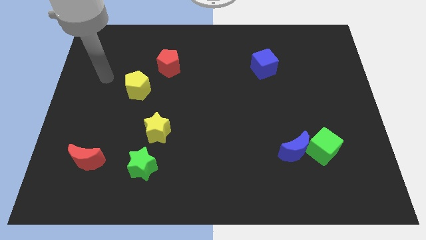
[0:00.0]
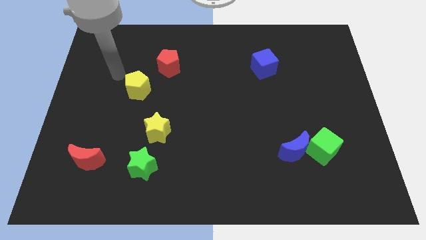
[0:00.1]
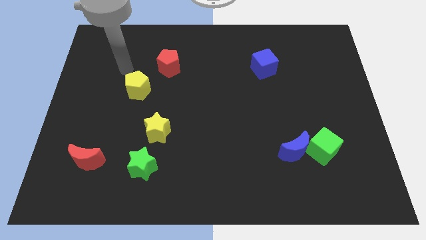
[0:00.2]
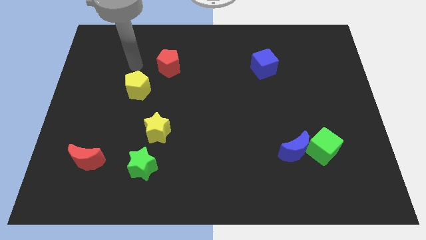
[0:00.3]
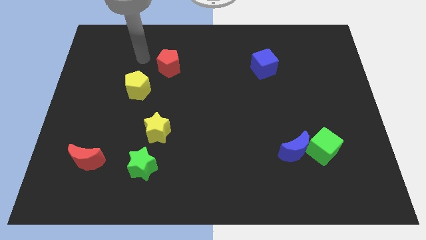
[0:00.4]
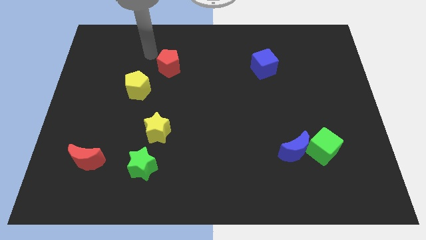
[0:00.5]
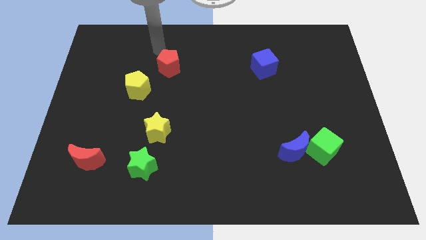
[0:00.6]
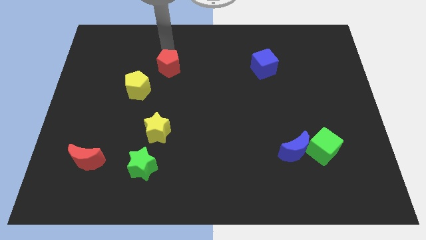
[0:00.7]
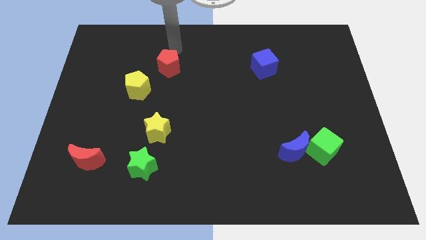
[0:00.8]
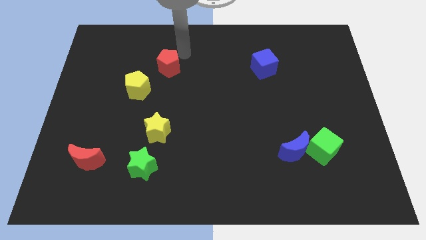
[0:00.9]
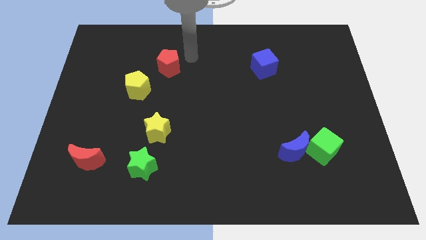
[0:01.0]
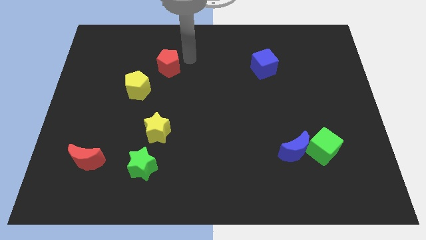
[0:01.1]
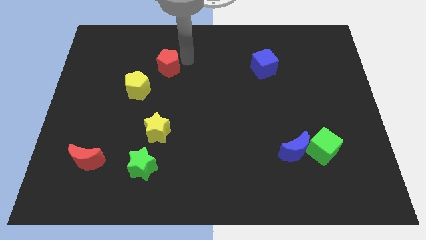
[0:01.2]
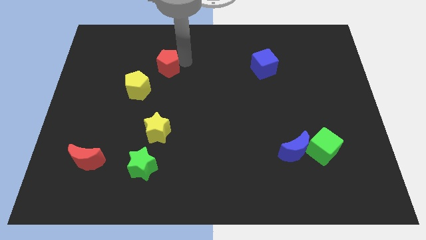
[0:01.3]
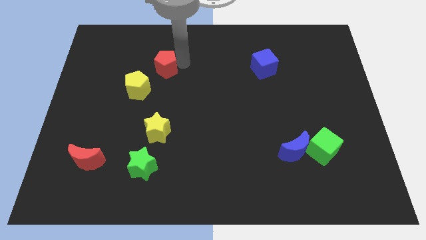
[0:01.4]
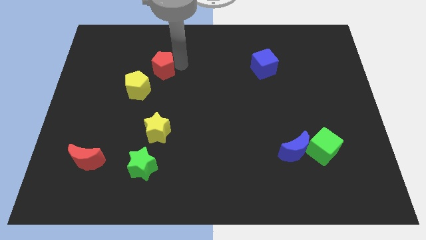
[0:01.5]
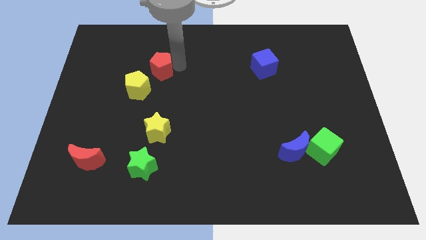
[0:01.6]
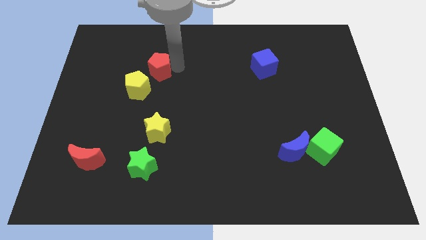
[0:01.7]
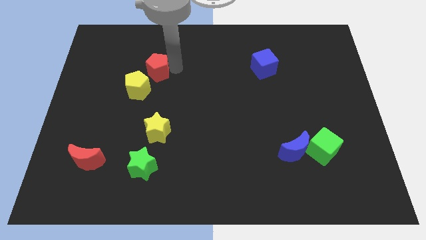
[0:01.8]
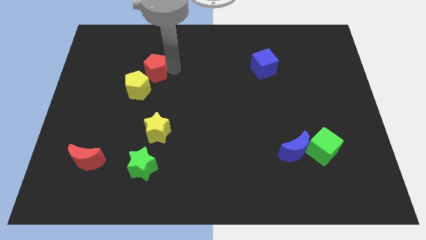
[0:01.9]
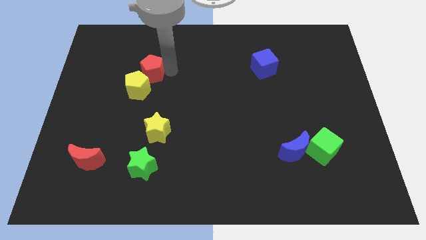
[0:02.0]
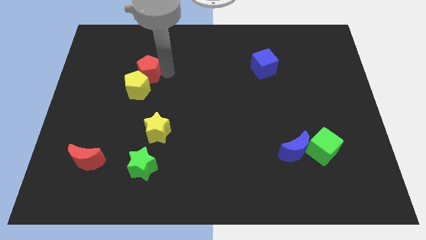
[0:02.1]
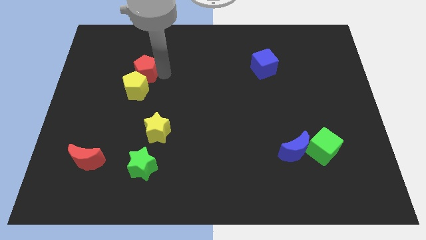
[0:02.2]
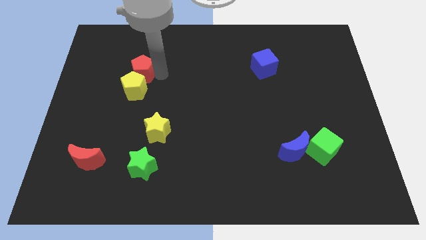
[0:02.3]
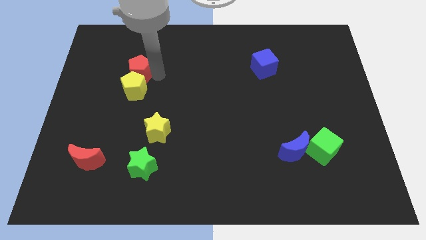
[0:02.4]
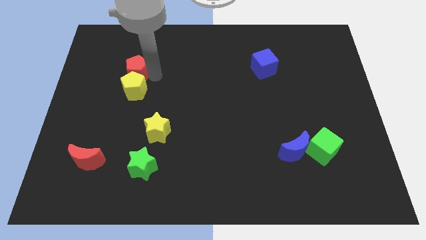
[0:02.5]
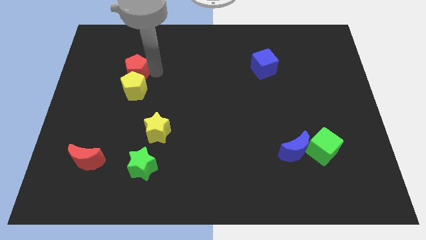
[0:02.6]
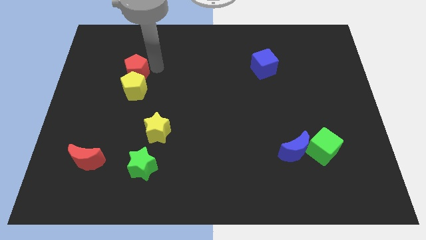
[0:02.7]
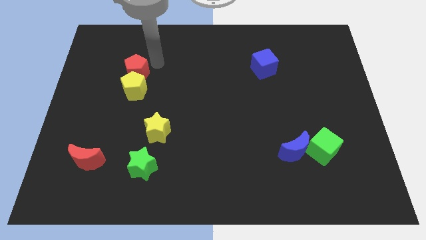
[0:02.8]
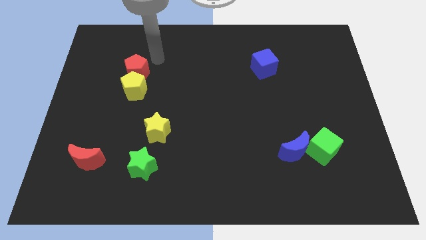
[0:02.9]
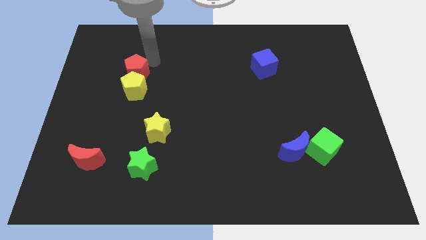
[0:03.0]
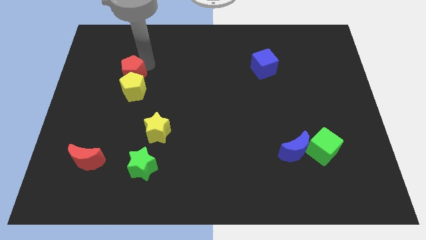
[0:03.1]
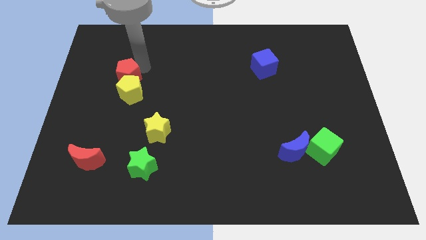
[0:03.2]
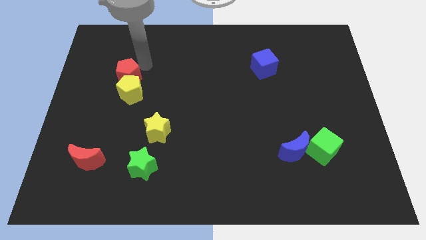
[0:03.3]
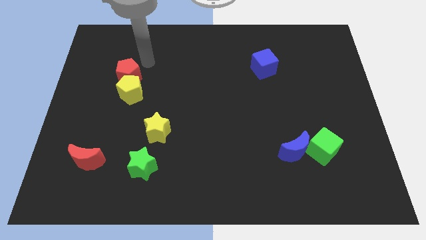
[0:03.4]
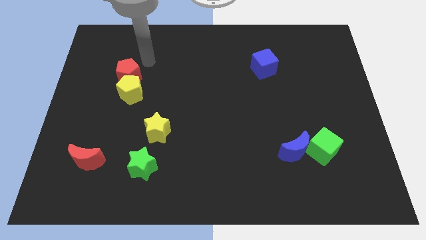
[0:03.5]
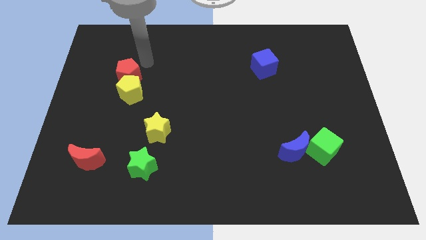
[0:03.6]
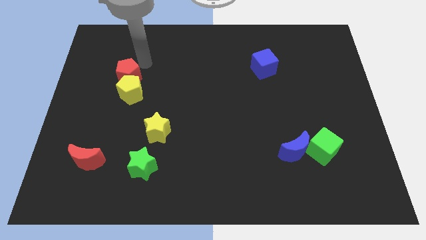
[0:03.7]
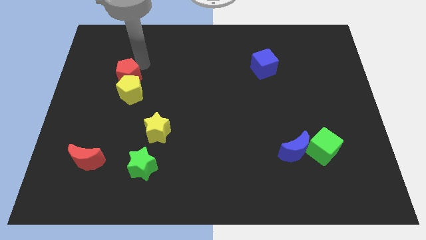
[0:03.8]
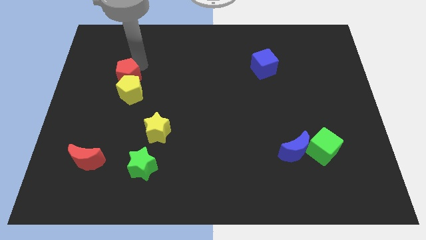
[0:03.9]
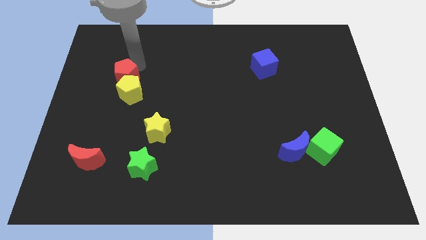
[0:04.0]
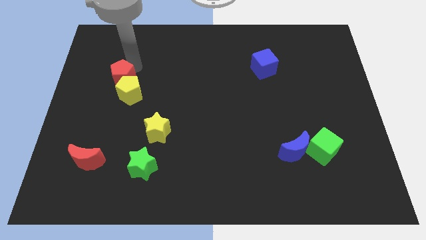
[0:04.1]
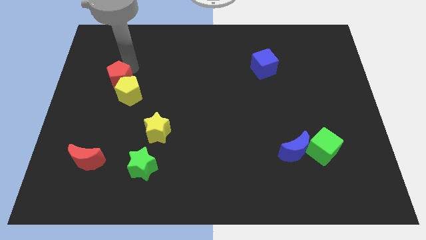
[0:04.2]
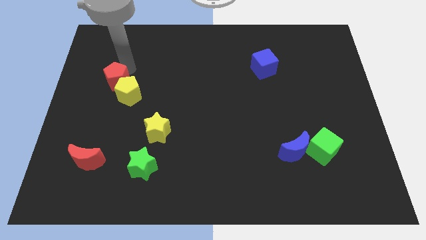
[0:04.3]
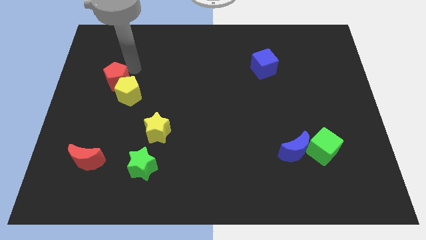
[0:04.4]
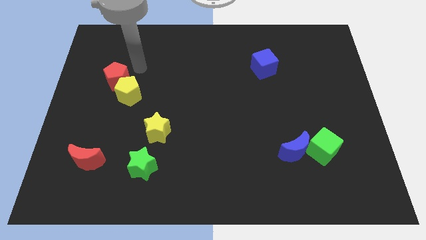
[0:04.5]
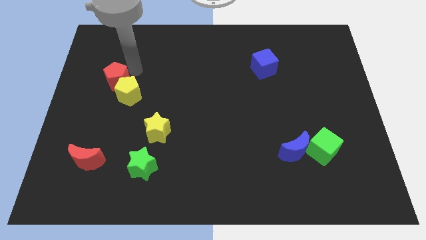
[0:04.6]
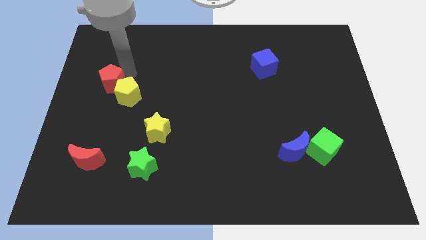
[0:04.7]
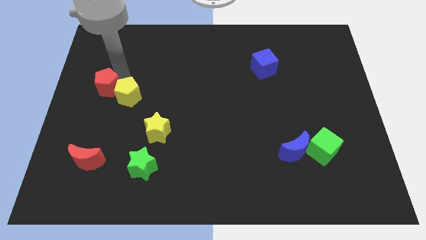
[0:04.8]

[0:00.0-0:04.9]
move the red pentagon to the center left

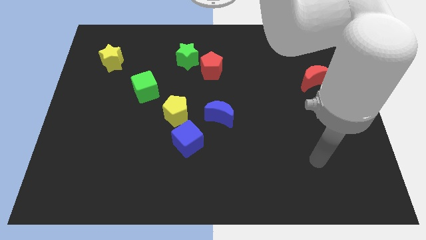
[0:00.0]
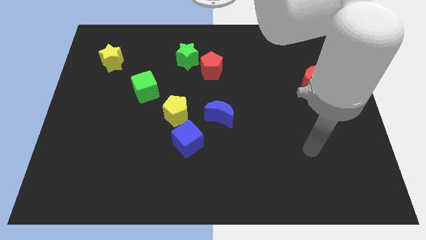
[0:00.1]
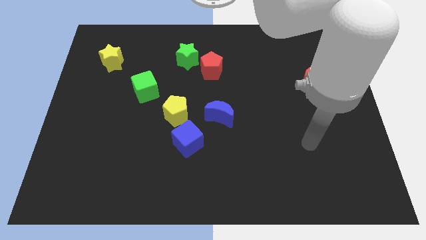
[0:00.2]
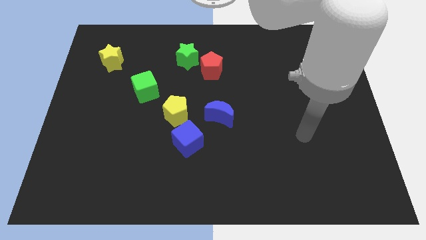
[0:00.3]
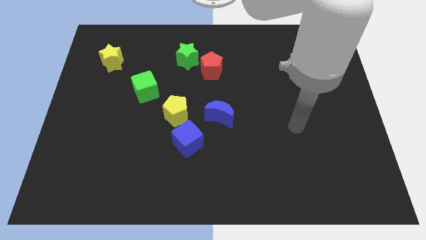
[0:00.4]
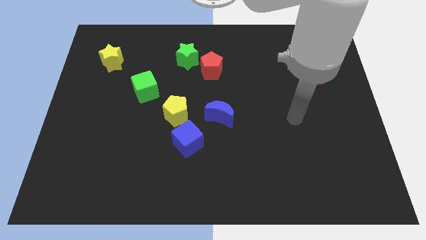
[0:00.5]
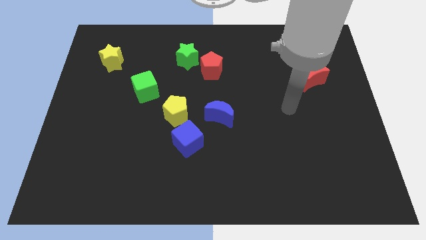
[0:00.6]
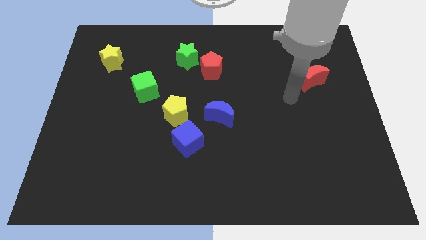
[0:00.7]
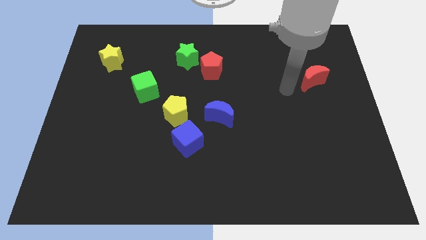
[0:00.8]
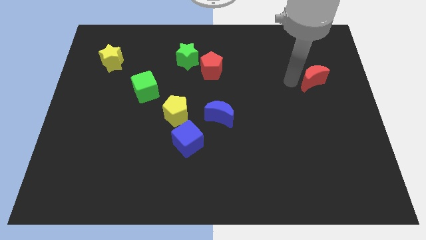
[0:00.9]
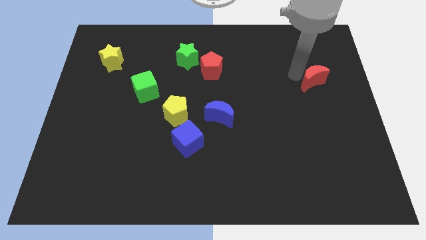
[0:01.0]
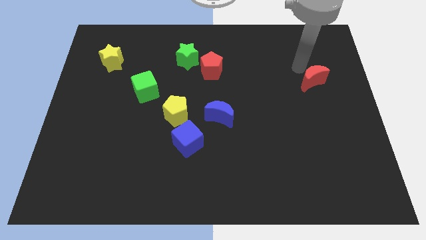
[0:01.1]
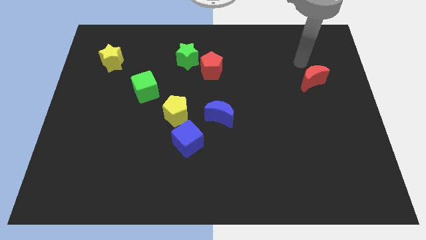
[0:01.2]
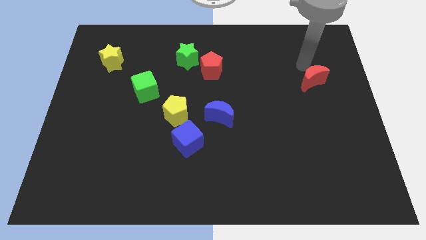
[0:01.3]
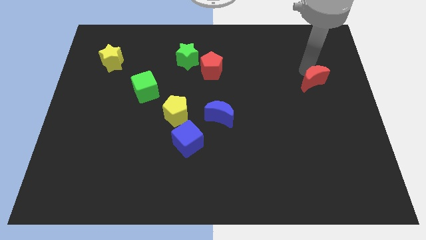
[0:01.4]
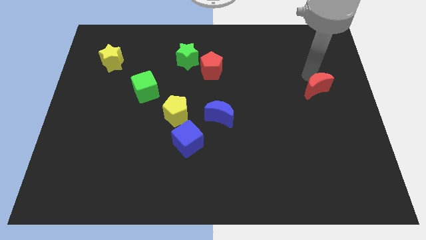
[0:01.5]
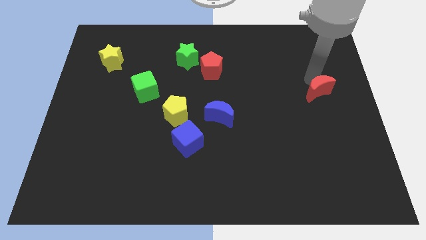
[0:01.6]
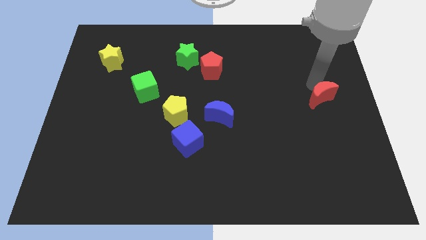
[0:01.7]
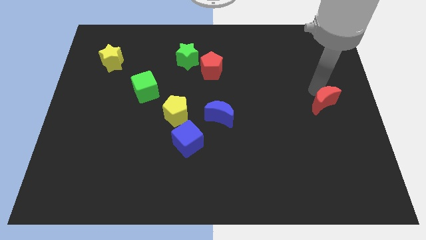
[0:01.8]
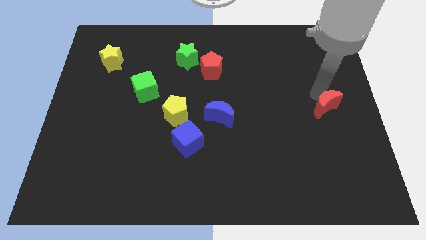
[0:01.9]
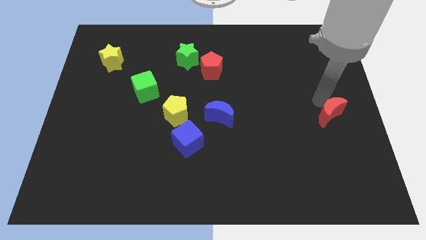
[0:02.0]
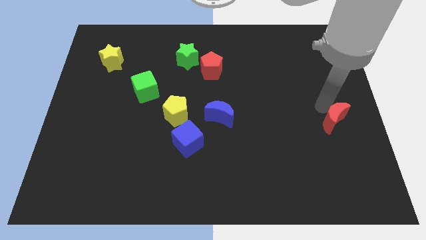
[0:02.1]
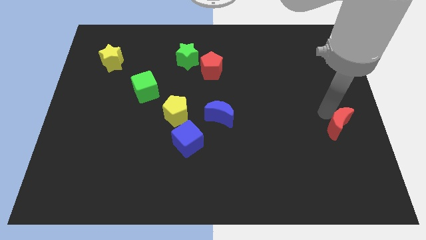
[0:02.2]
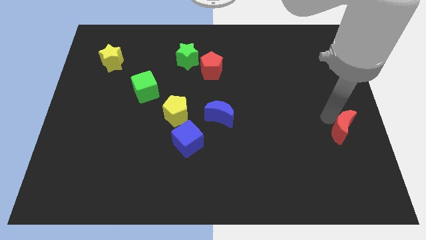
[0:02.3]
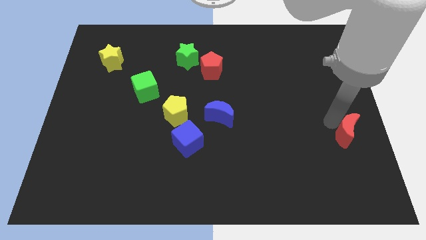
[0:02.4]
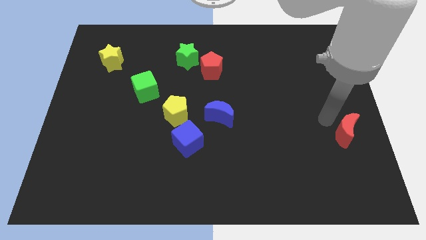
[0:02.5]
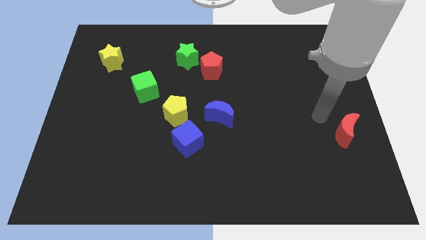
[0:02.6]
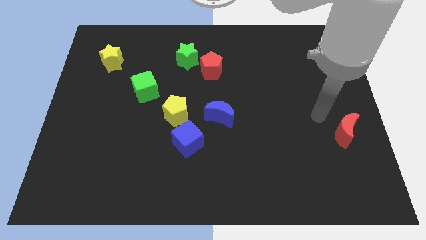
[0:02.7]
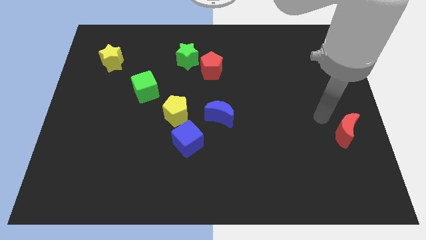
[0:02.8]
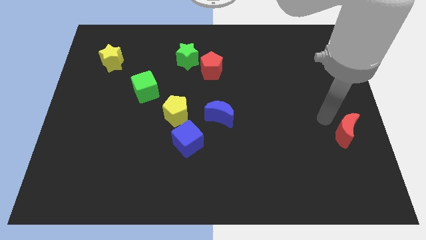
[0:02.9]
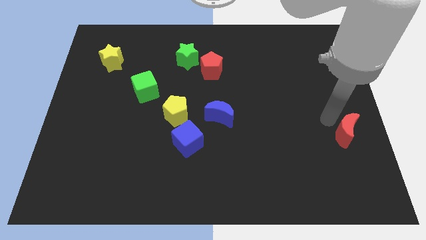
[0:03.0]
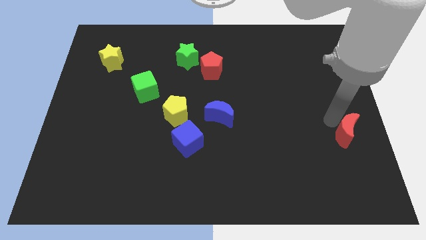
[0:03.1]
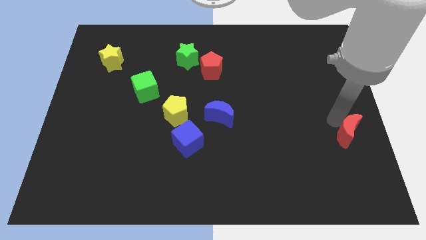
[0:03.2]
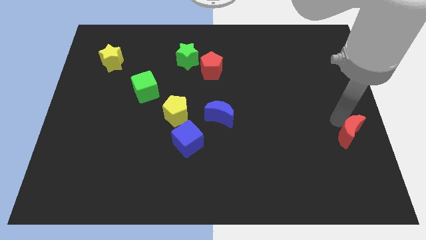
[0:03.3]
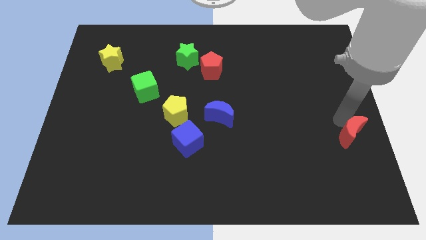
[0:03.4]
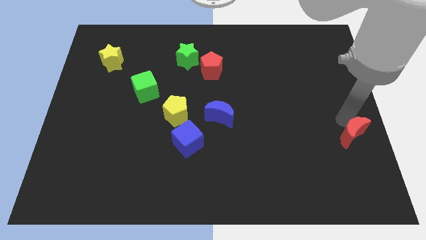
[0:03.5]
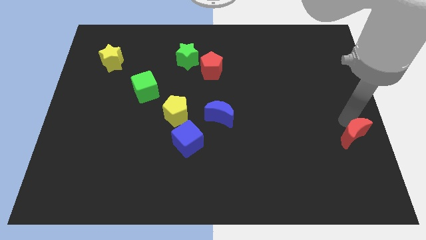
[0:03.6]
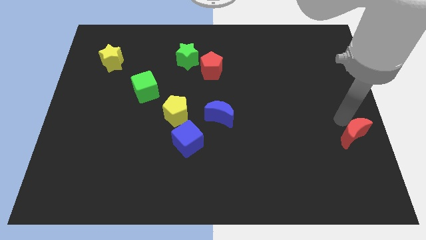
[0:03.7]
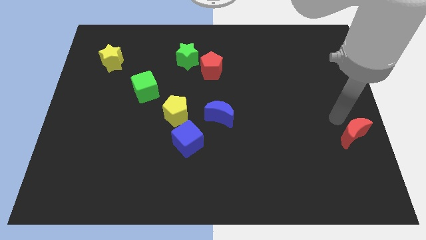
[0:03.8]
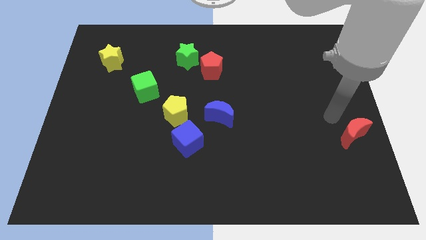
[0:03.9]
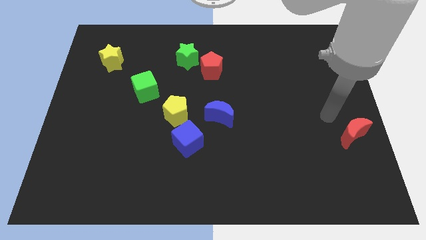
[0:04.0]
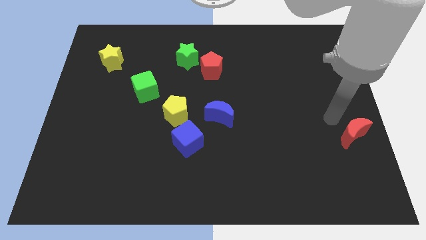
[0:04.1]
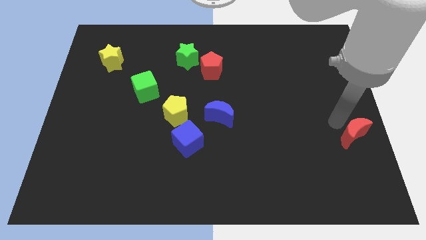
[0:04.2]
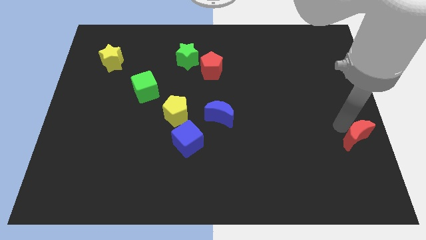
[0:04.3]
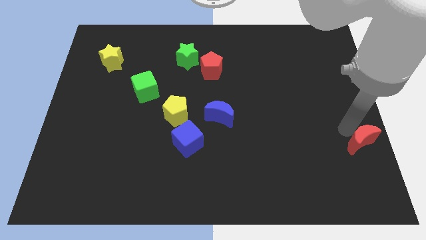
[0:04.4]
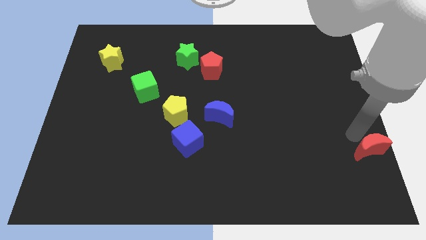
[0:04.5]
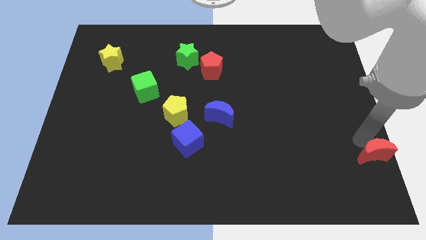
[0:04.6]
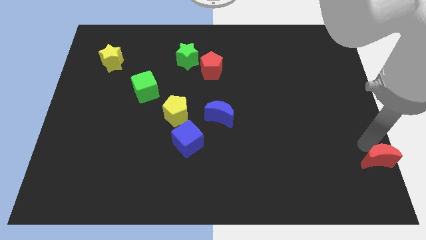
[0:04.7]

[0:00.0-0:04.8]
move the red moon to the bottom right of the board
